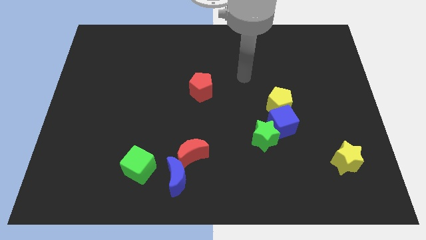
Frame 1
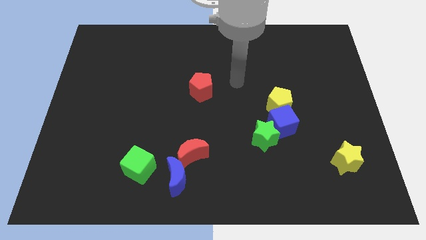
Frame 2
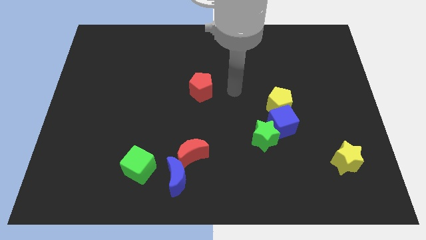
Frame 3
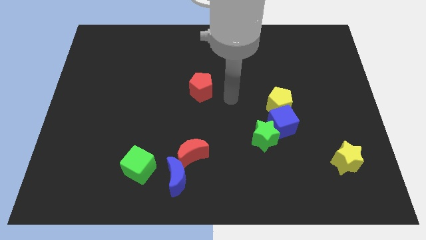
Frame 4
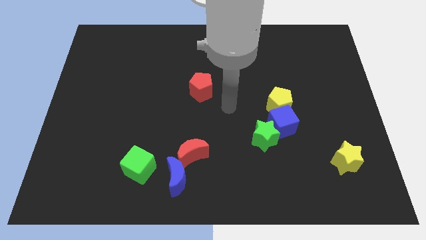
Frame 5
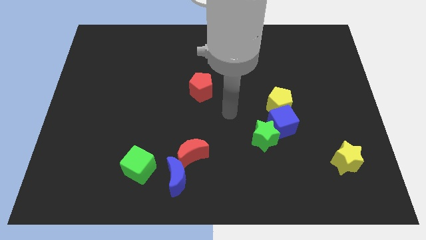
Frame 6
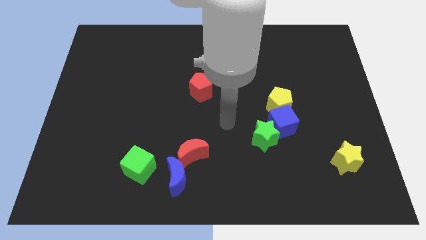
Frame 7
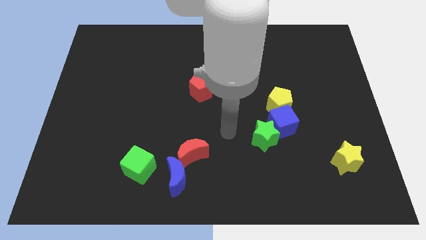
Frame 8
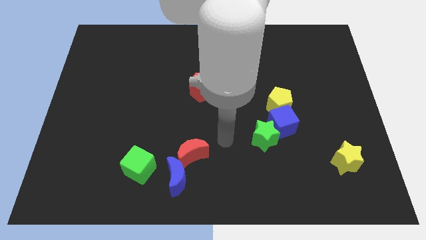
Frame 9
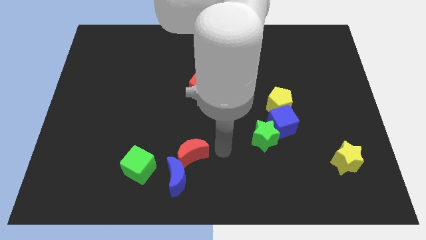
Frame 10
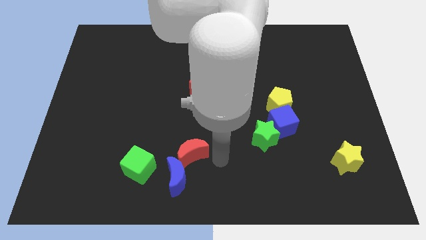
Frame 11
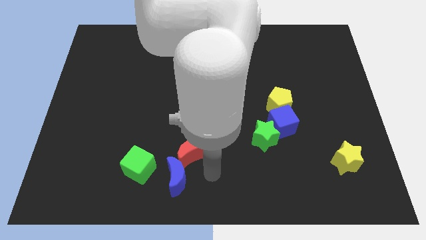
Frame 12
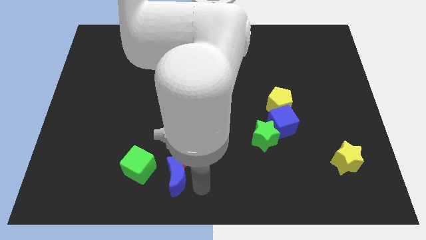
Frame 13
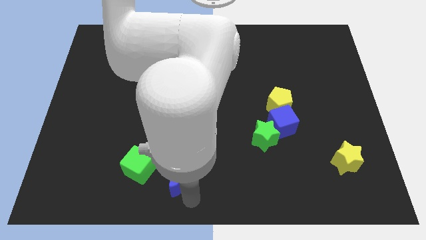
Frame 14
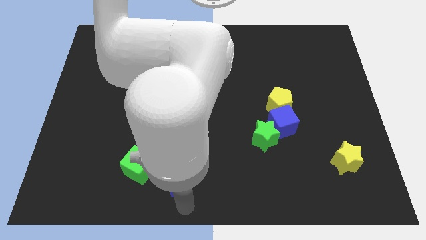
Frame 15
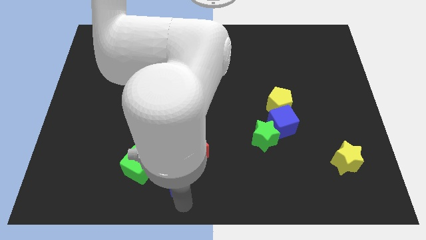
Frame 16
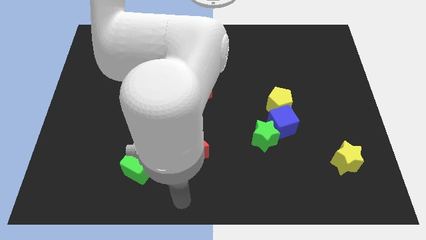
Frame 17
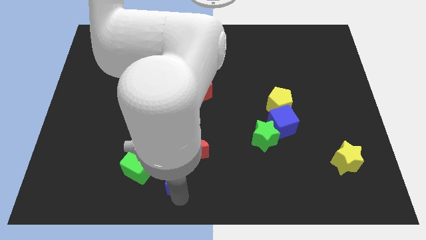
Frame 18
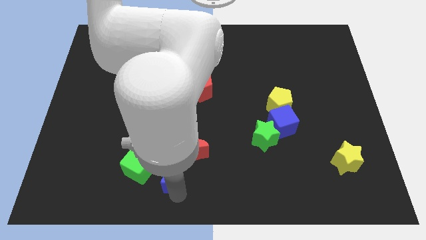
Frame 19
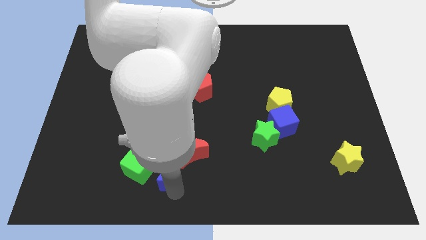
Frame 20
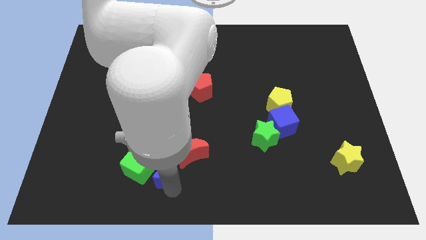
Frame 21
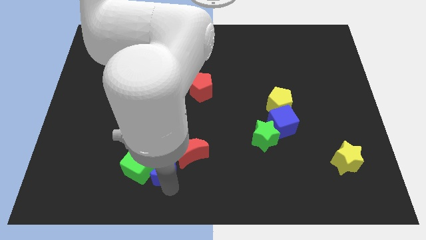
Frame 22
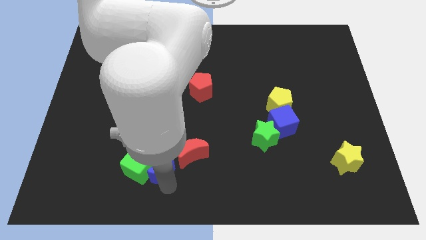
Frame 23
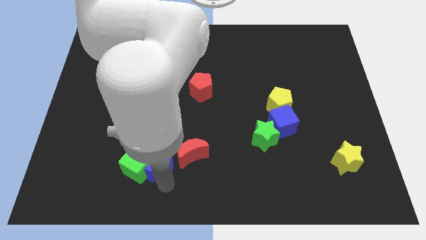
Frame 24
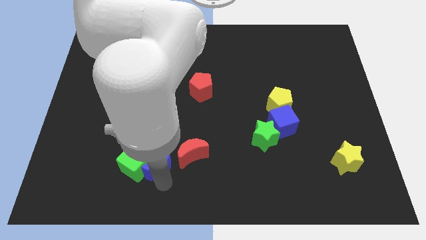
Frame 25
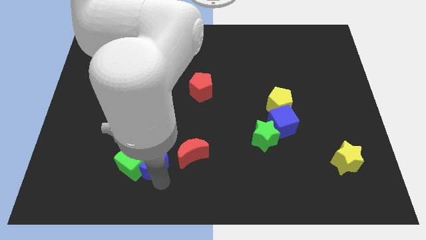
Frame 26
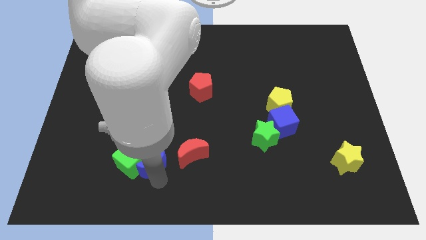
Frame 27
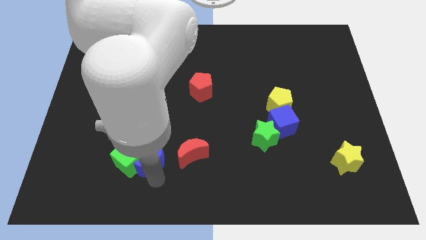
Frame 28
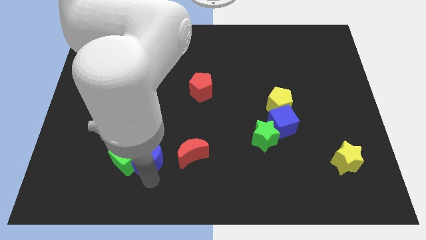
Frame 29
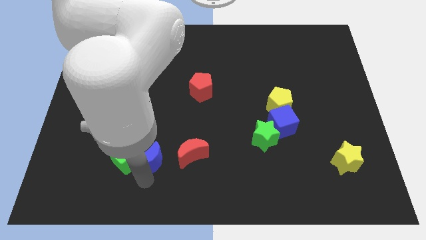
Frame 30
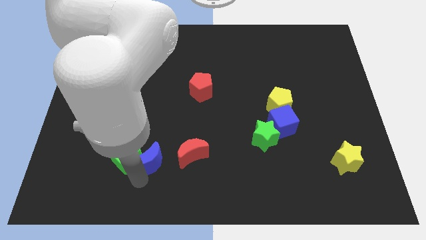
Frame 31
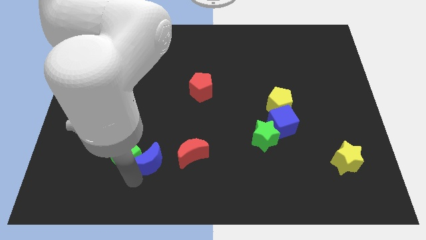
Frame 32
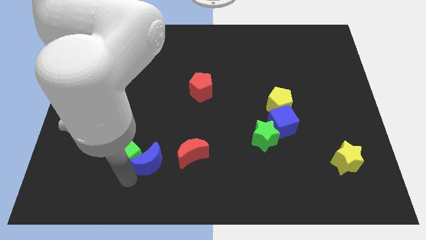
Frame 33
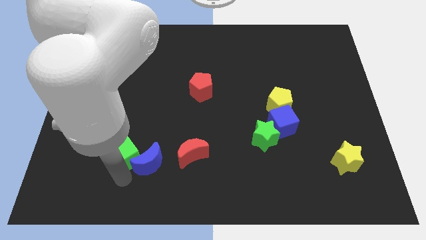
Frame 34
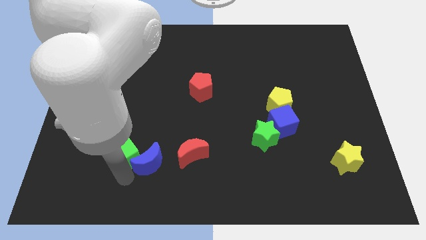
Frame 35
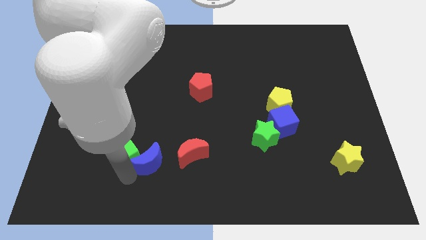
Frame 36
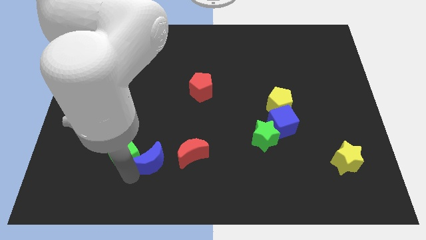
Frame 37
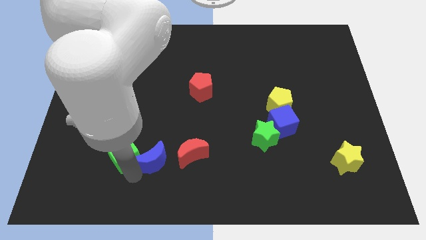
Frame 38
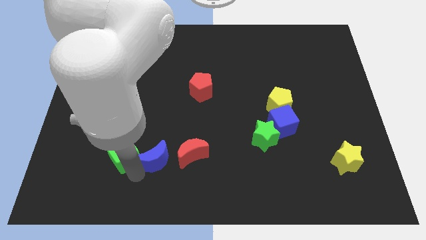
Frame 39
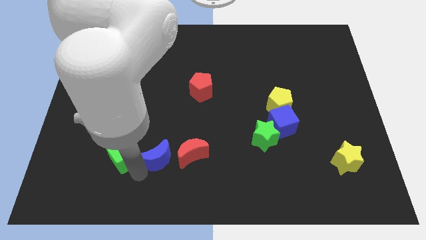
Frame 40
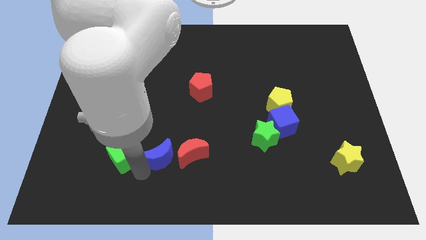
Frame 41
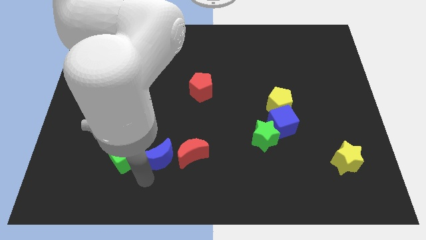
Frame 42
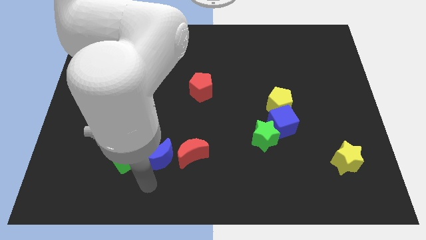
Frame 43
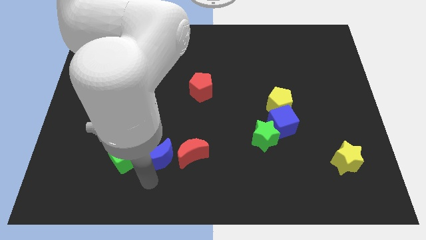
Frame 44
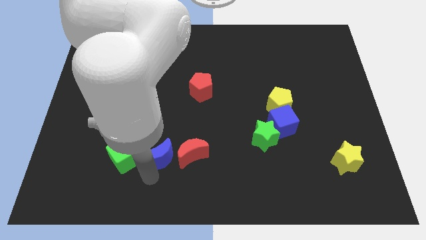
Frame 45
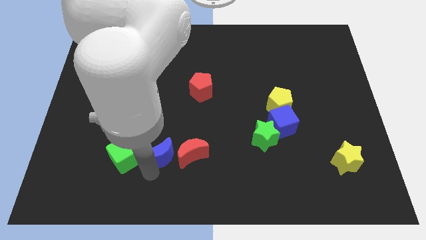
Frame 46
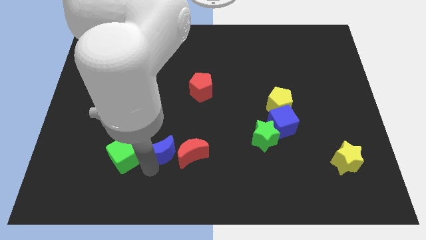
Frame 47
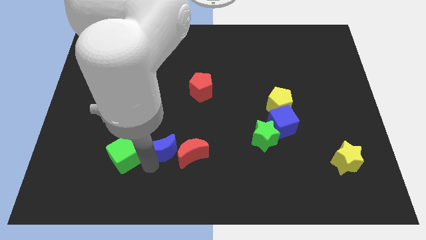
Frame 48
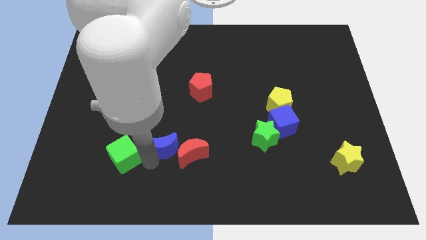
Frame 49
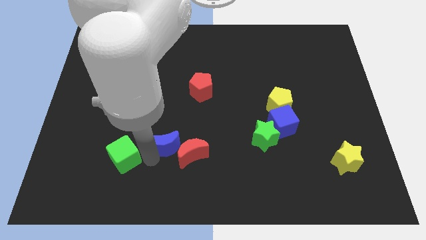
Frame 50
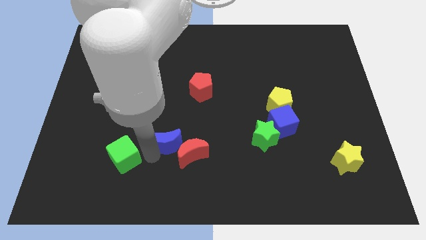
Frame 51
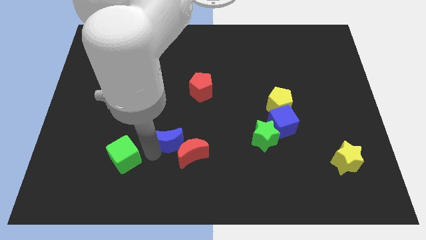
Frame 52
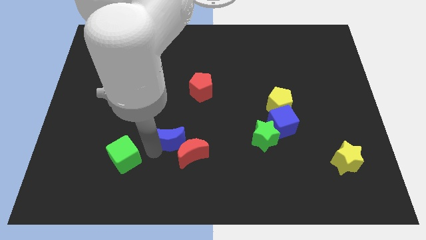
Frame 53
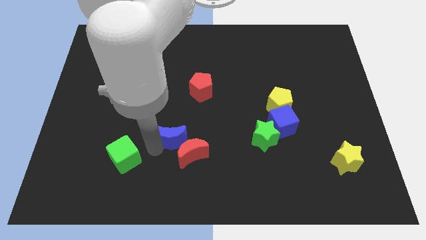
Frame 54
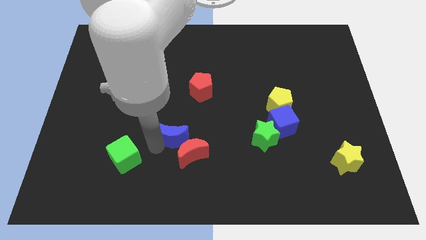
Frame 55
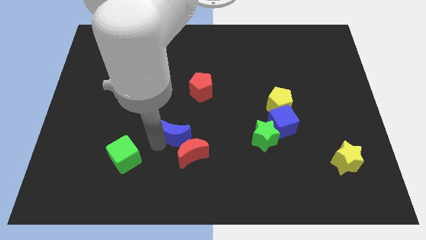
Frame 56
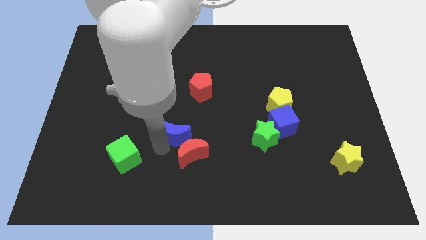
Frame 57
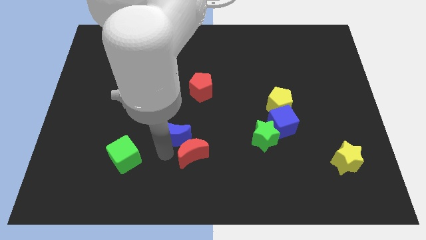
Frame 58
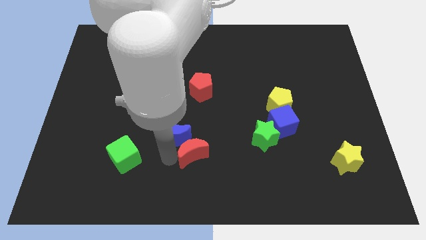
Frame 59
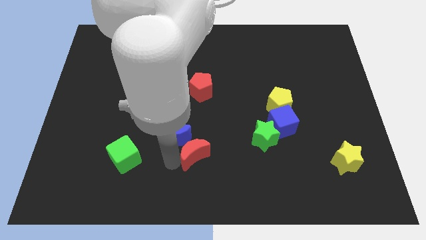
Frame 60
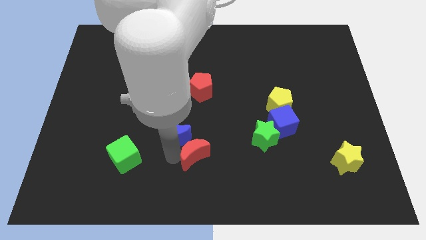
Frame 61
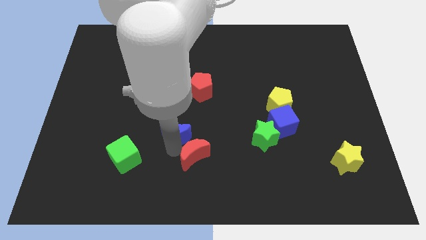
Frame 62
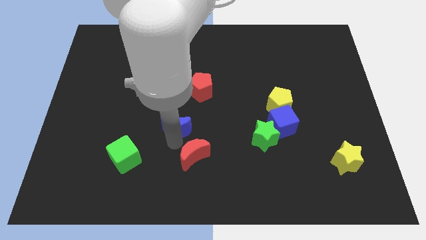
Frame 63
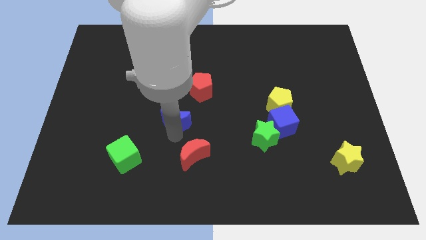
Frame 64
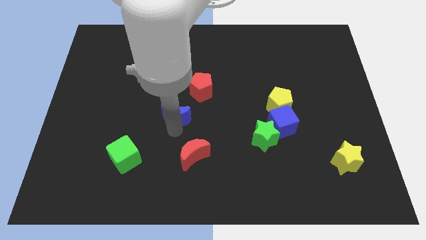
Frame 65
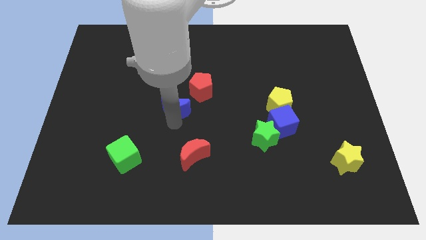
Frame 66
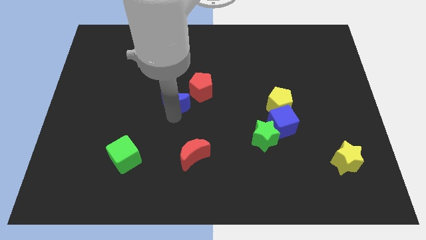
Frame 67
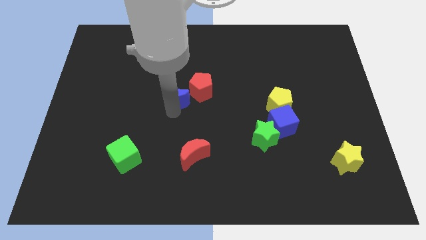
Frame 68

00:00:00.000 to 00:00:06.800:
slide the blue moon up

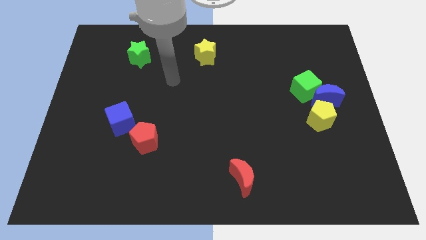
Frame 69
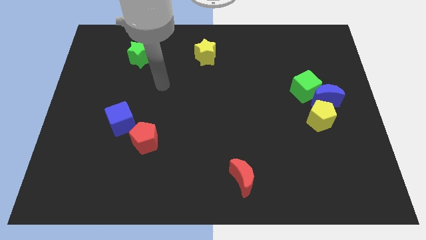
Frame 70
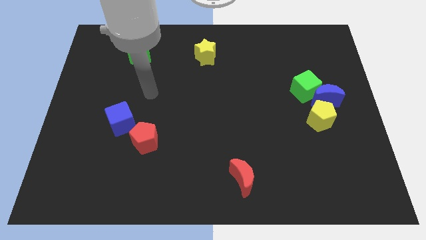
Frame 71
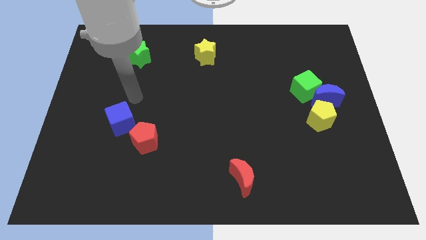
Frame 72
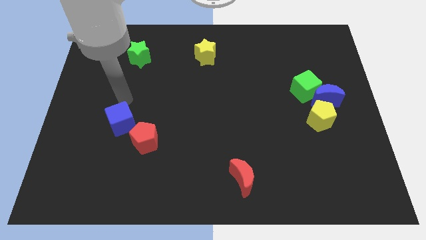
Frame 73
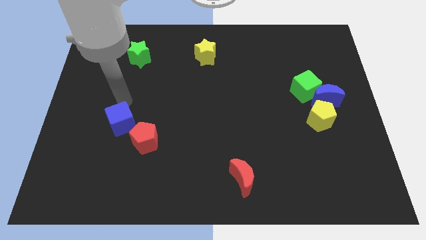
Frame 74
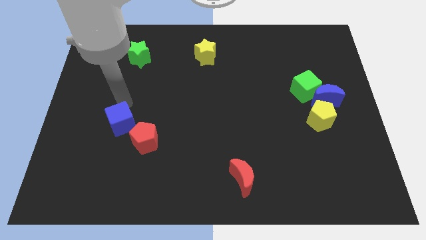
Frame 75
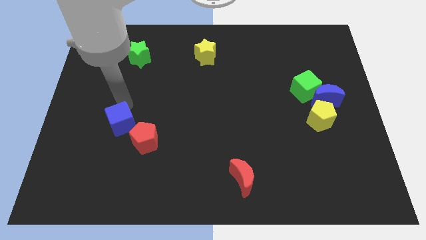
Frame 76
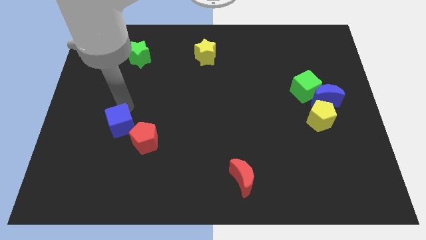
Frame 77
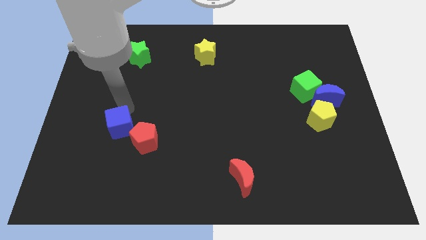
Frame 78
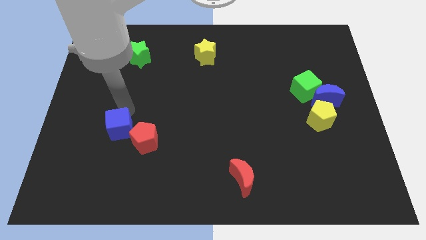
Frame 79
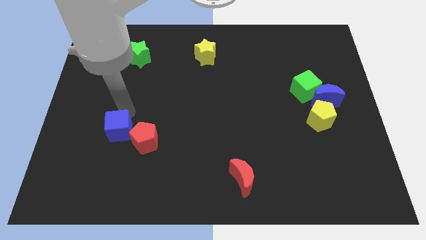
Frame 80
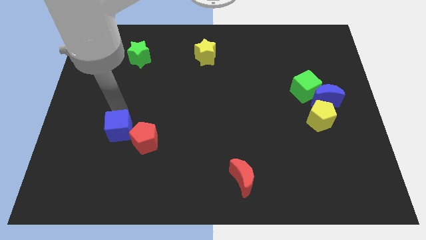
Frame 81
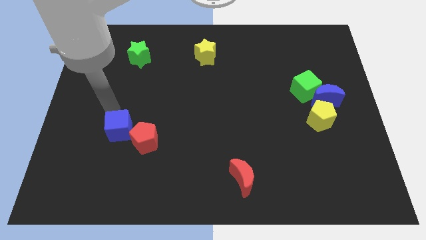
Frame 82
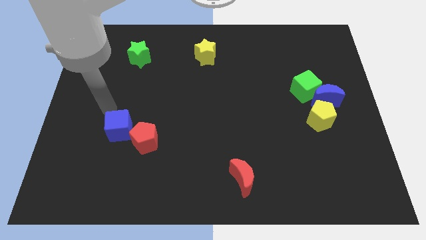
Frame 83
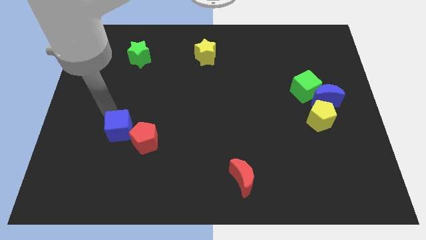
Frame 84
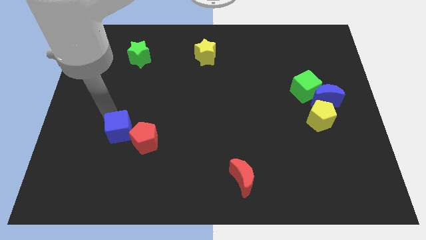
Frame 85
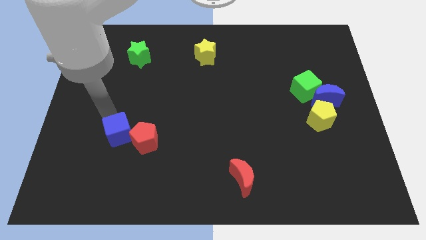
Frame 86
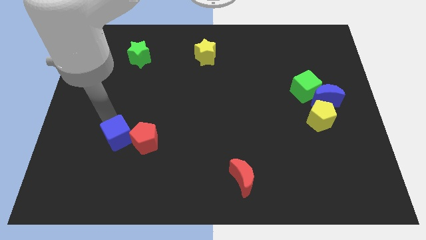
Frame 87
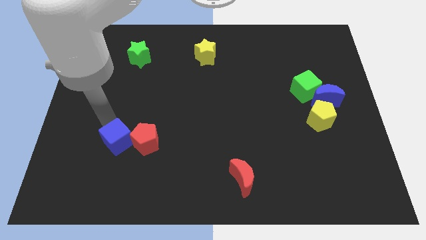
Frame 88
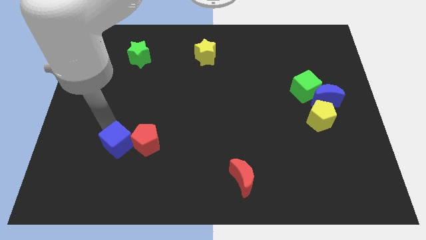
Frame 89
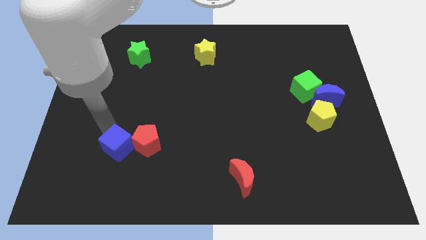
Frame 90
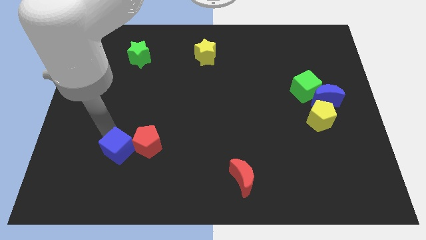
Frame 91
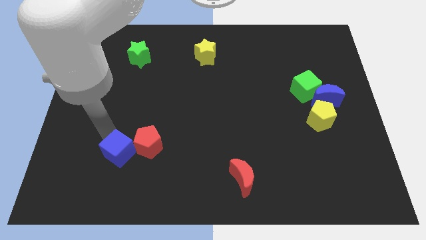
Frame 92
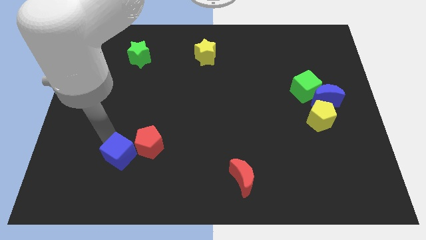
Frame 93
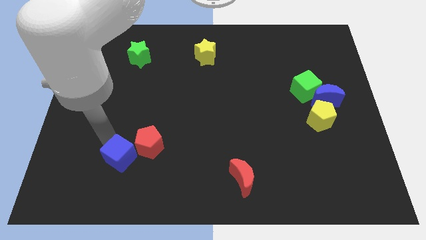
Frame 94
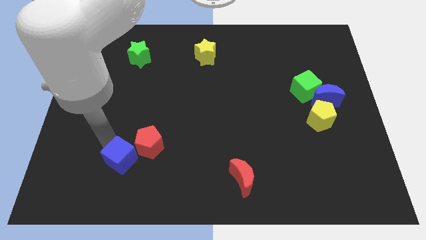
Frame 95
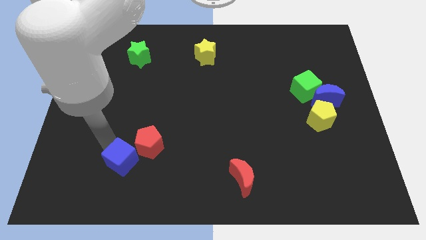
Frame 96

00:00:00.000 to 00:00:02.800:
slightly move the blue cube diagonally down and to the right
